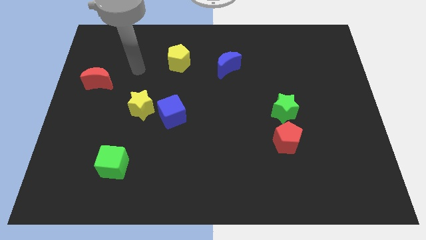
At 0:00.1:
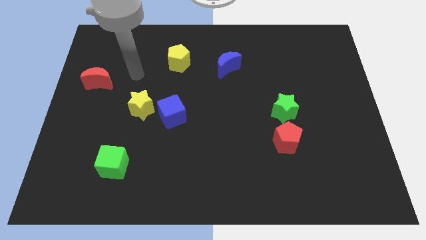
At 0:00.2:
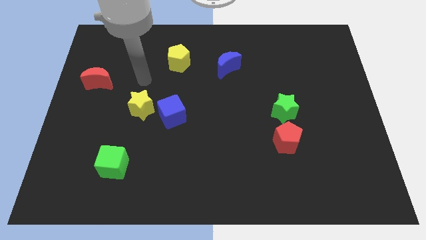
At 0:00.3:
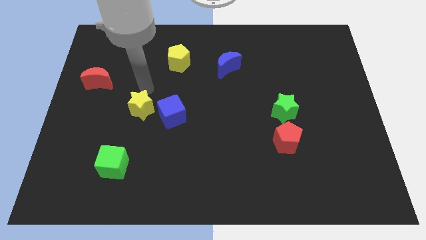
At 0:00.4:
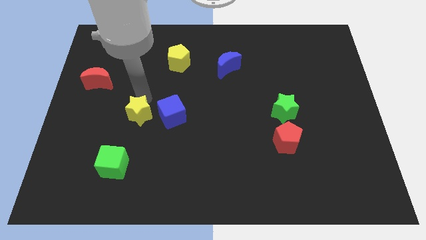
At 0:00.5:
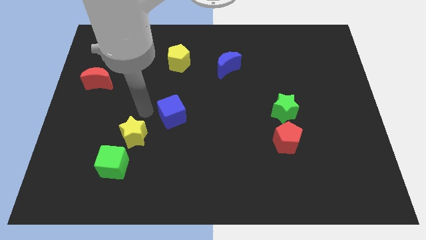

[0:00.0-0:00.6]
pull the blue cube apart from the yellow star

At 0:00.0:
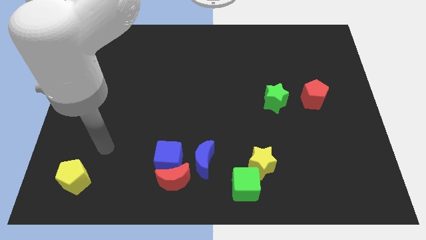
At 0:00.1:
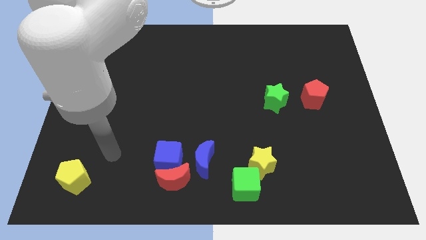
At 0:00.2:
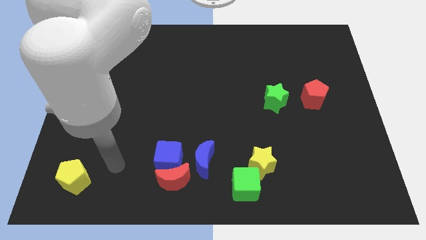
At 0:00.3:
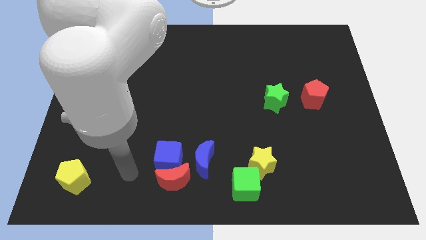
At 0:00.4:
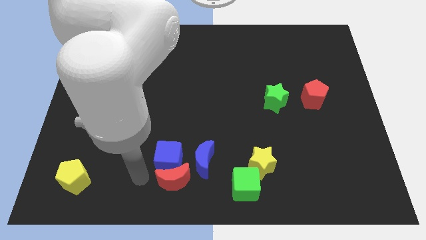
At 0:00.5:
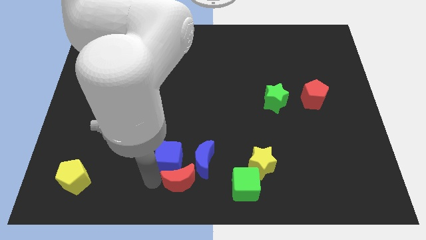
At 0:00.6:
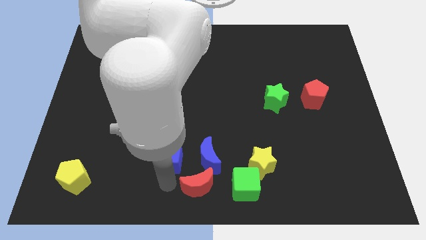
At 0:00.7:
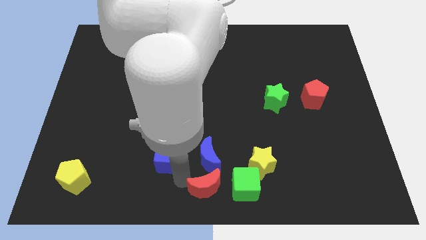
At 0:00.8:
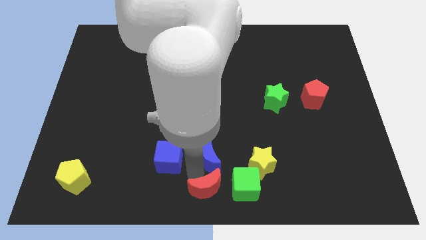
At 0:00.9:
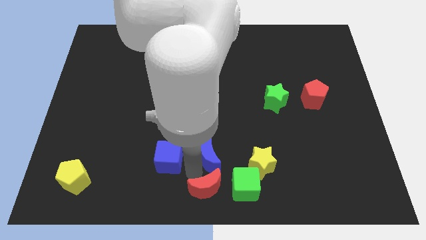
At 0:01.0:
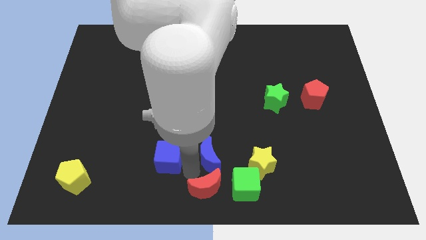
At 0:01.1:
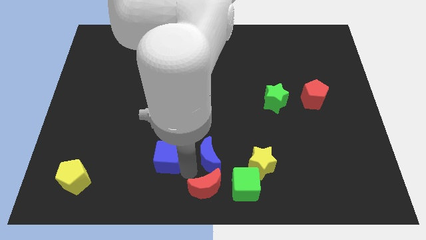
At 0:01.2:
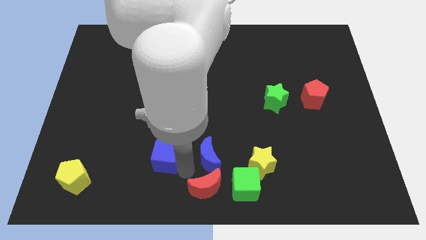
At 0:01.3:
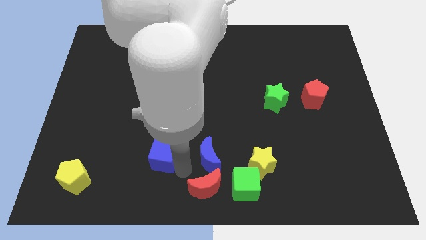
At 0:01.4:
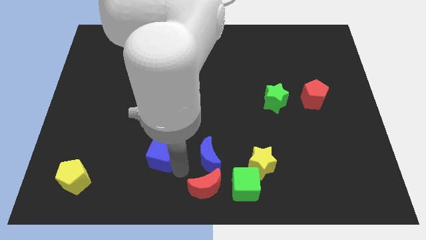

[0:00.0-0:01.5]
separate the blue cube from the red moon and blue moon

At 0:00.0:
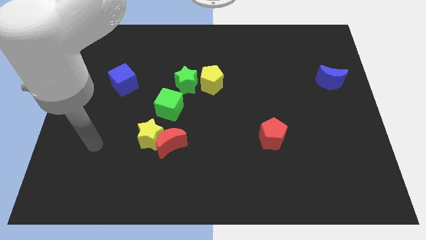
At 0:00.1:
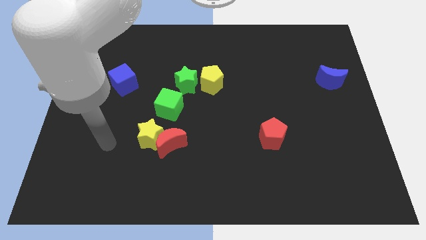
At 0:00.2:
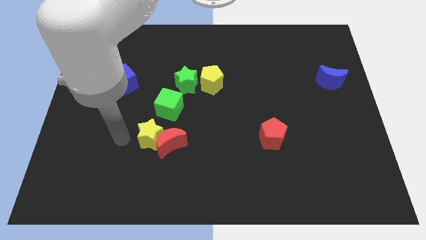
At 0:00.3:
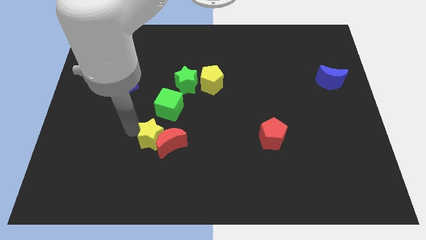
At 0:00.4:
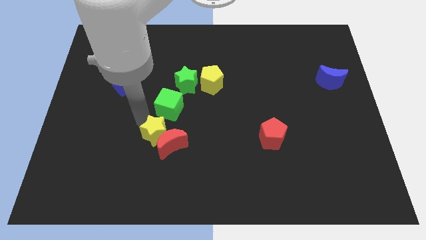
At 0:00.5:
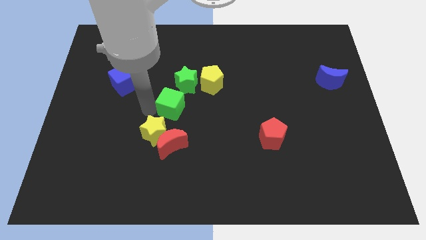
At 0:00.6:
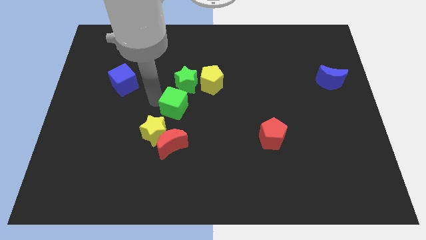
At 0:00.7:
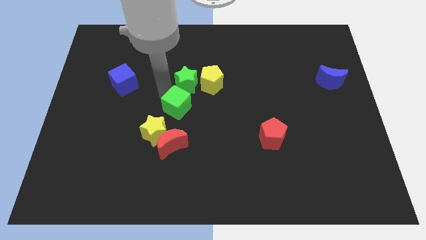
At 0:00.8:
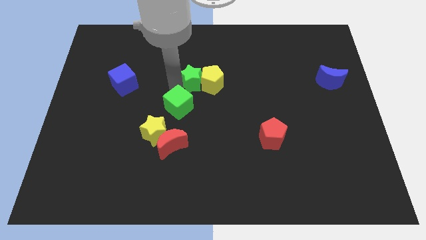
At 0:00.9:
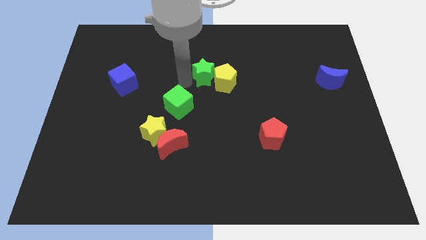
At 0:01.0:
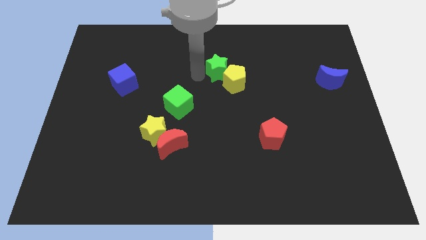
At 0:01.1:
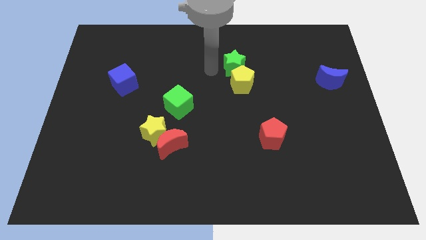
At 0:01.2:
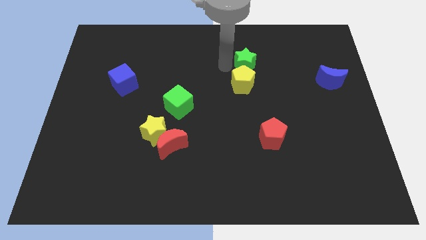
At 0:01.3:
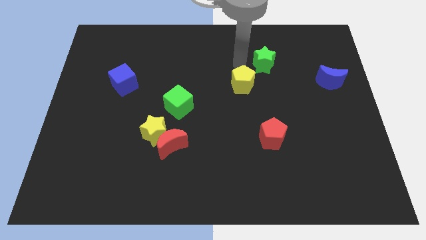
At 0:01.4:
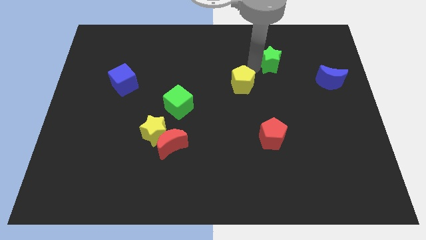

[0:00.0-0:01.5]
move the yellow pentagon away from the green star

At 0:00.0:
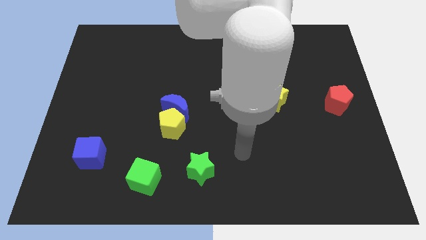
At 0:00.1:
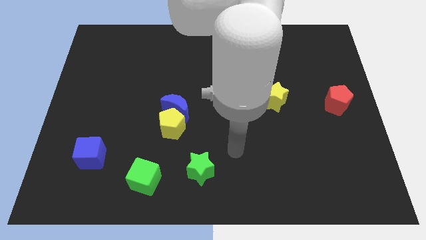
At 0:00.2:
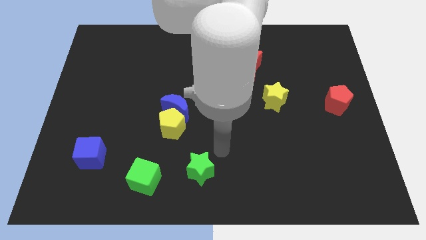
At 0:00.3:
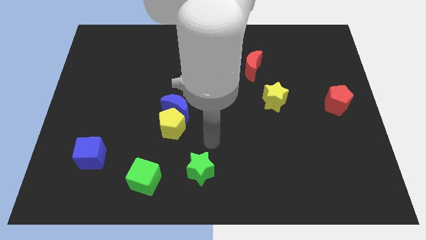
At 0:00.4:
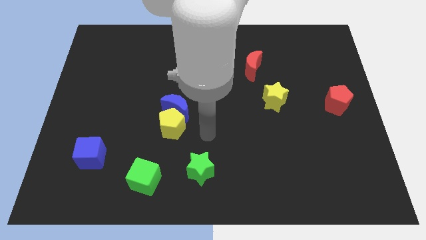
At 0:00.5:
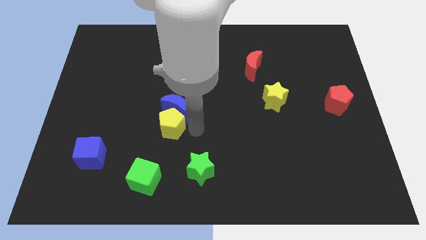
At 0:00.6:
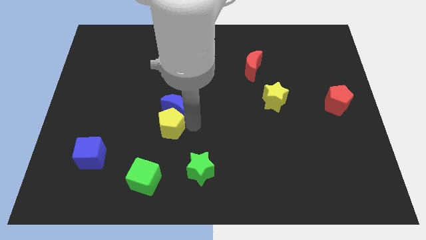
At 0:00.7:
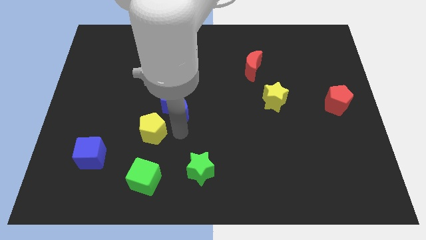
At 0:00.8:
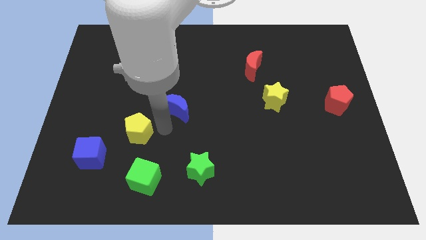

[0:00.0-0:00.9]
separate the blue moon from the yellow pentagon

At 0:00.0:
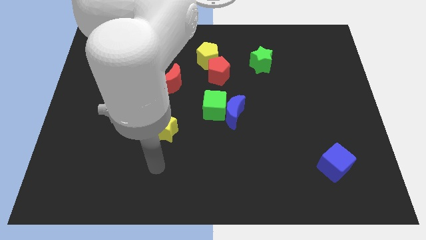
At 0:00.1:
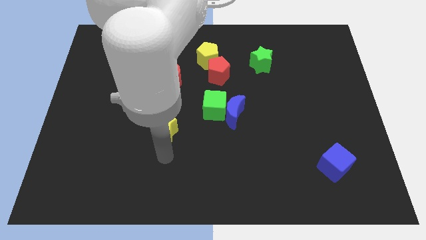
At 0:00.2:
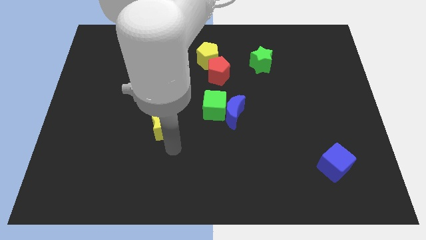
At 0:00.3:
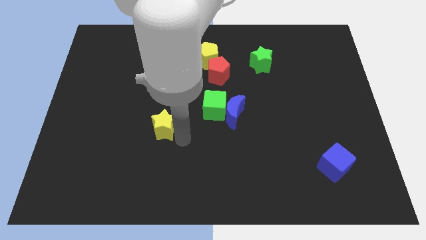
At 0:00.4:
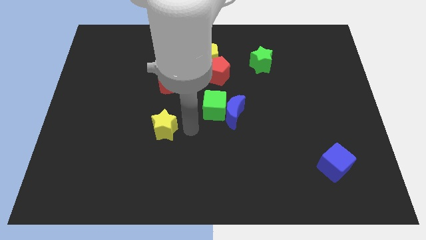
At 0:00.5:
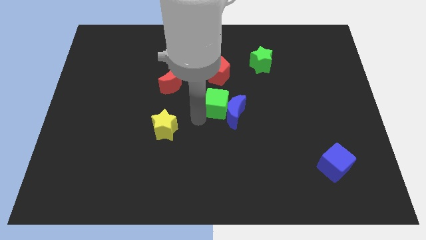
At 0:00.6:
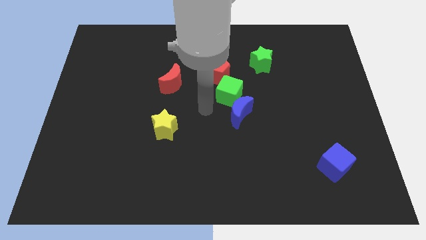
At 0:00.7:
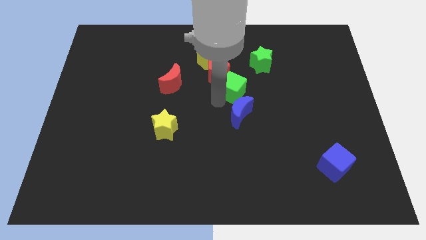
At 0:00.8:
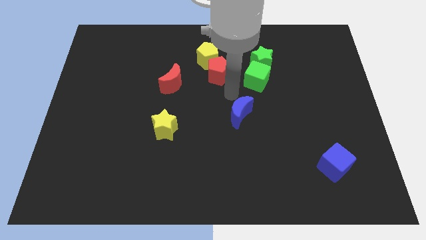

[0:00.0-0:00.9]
move the blue moon away from the green cube

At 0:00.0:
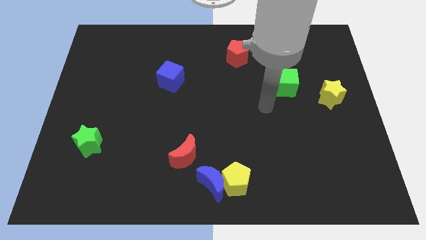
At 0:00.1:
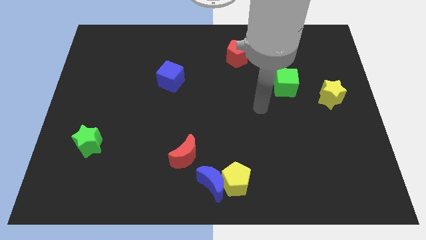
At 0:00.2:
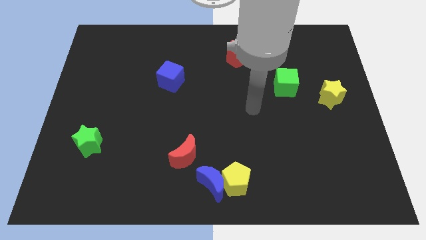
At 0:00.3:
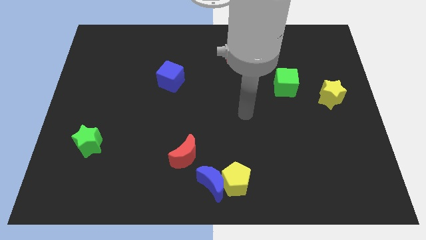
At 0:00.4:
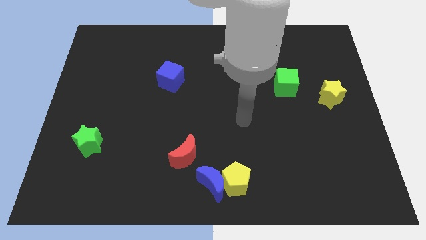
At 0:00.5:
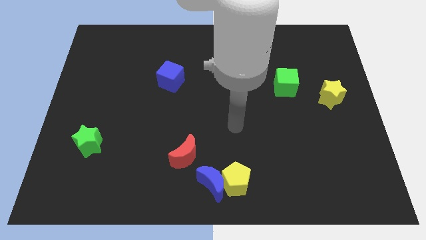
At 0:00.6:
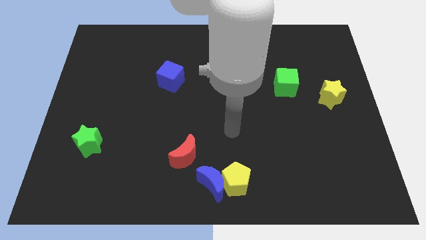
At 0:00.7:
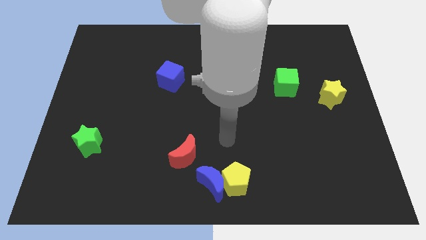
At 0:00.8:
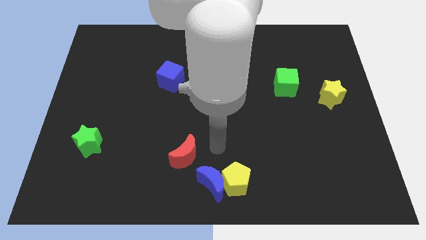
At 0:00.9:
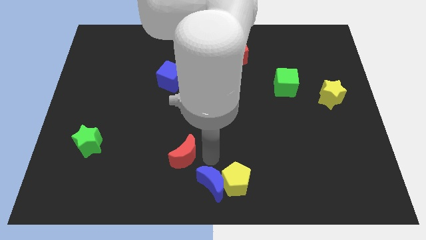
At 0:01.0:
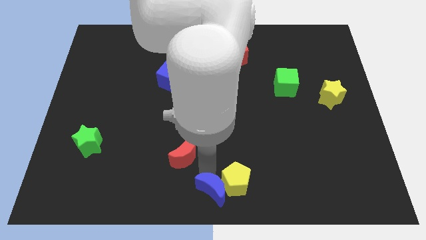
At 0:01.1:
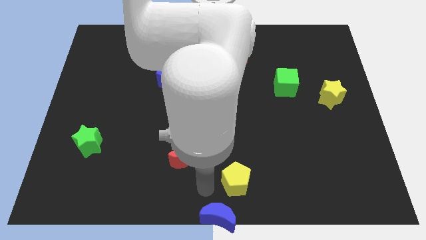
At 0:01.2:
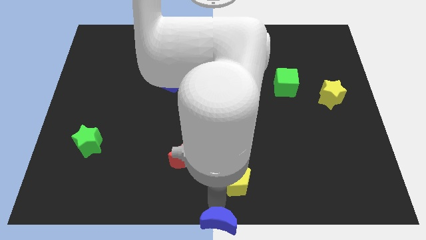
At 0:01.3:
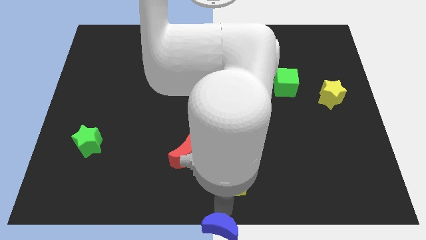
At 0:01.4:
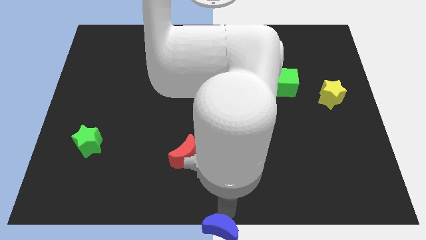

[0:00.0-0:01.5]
pull the yellow pentagon apart from the blue moon

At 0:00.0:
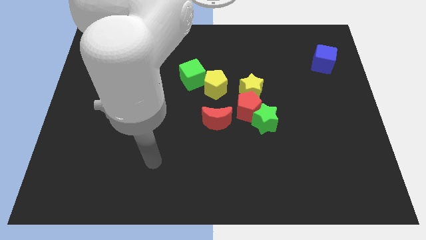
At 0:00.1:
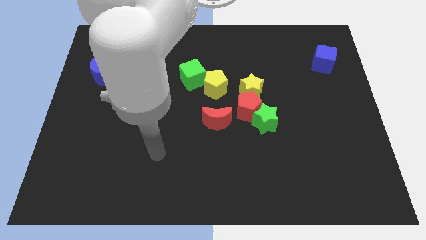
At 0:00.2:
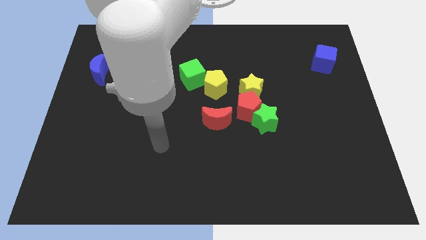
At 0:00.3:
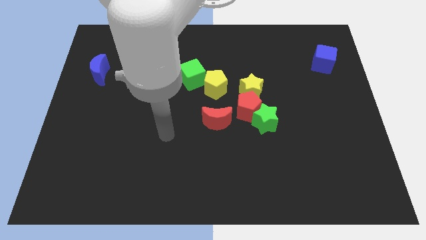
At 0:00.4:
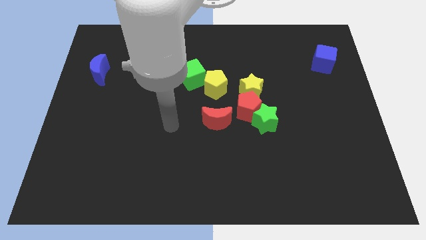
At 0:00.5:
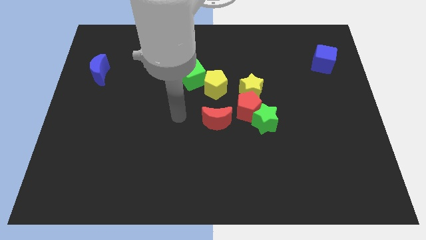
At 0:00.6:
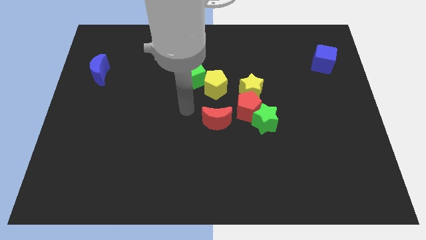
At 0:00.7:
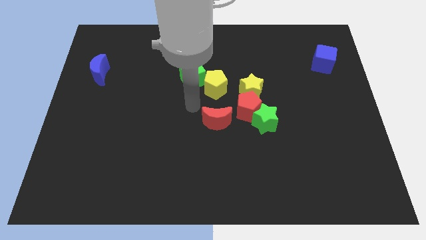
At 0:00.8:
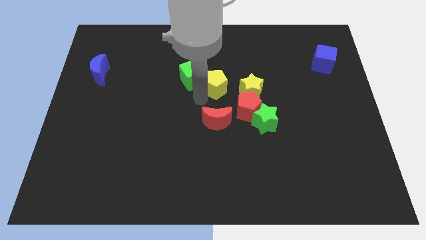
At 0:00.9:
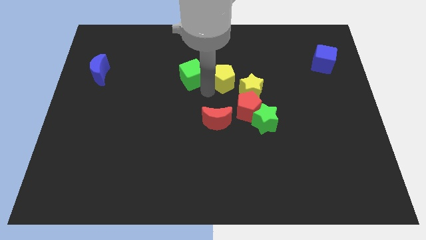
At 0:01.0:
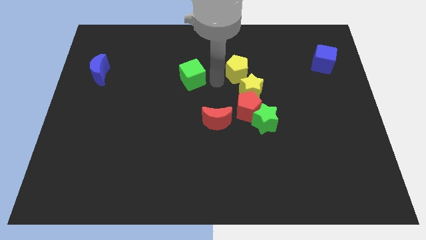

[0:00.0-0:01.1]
separate the green cube from the yellow pentagon

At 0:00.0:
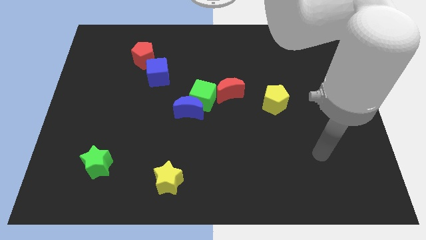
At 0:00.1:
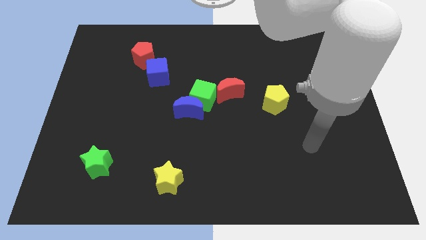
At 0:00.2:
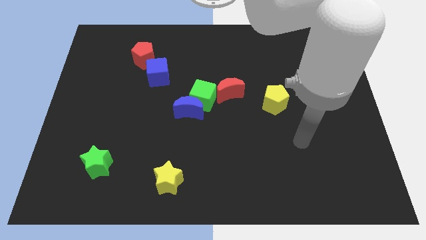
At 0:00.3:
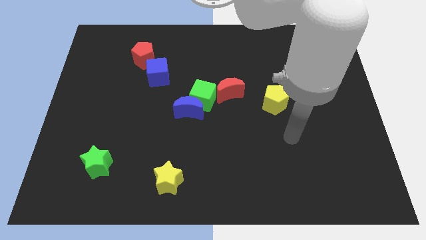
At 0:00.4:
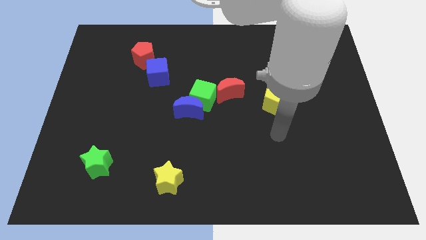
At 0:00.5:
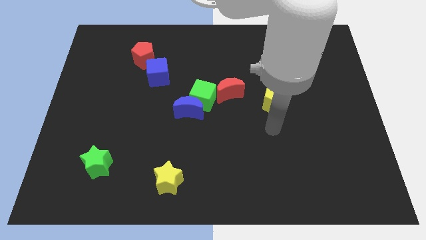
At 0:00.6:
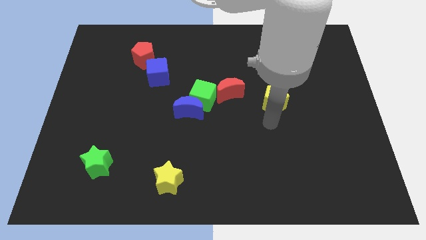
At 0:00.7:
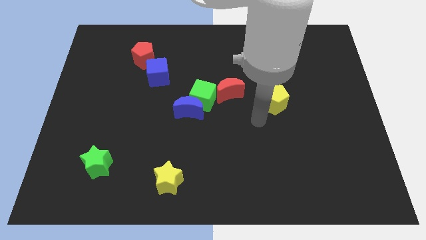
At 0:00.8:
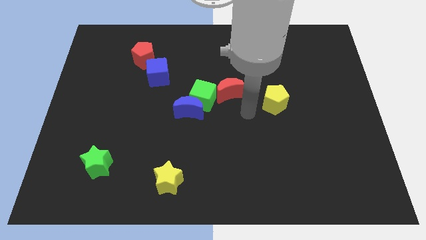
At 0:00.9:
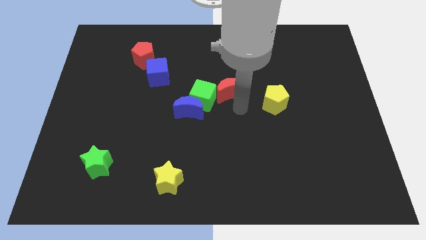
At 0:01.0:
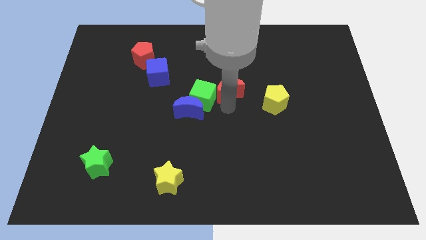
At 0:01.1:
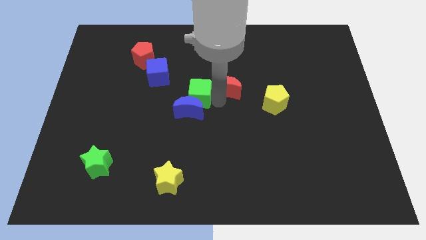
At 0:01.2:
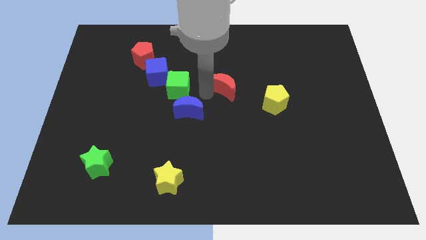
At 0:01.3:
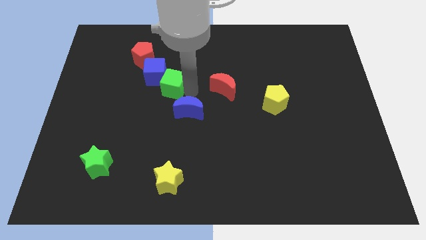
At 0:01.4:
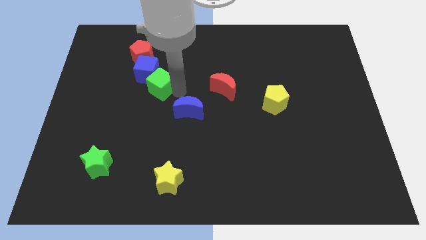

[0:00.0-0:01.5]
pull the blue moon apart from the green cube
